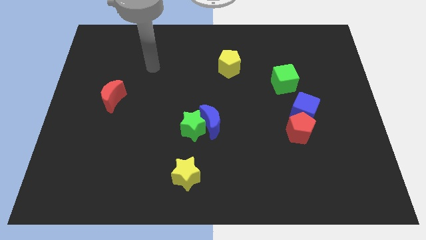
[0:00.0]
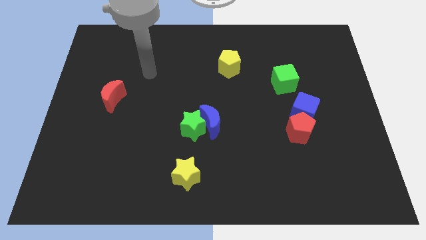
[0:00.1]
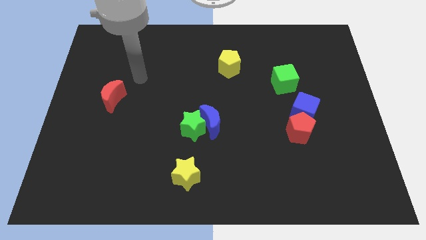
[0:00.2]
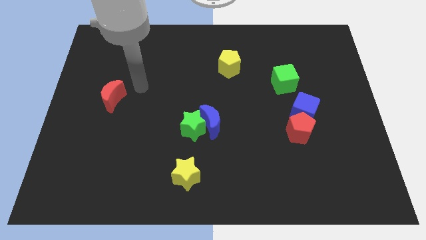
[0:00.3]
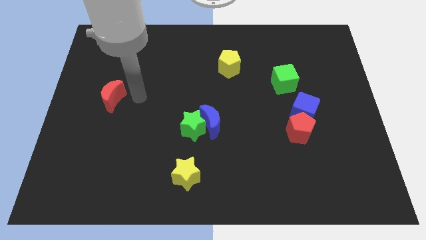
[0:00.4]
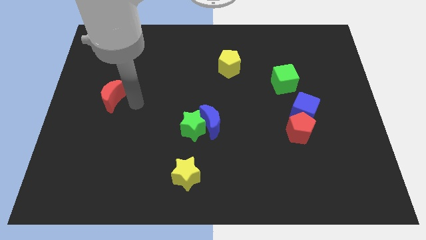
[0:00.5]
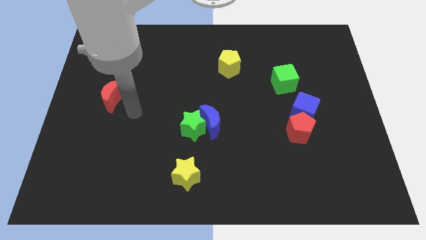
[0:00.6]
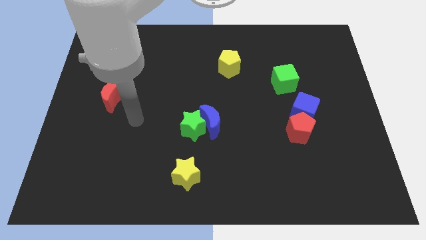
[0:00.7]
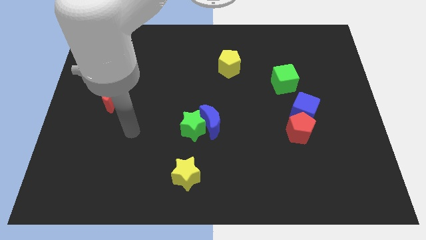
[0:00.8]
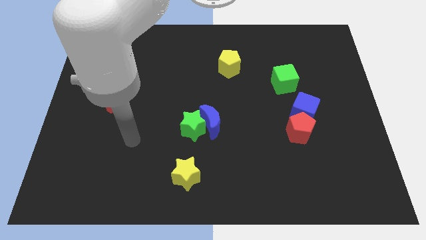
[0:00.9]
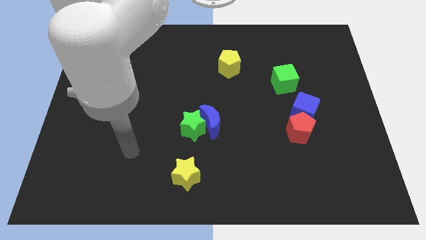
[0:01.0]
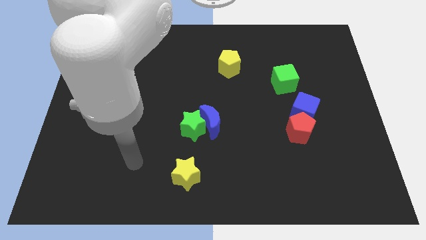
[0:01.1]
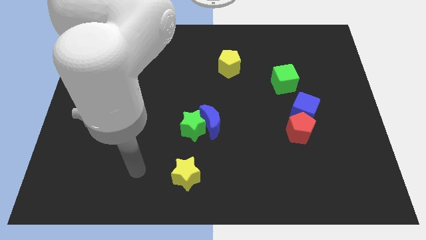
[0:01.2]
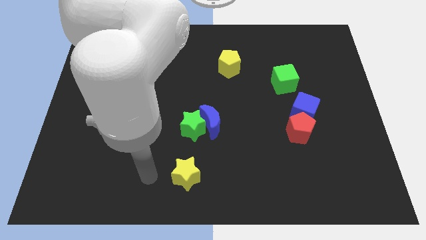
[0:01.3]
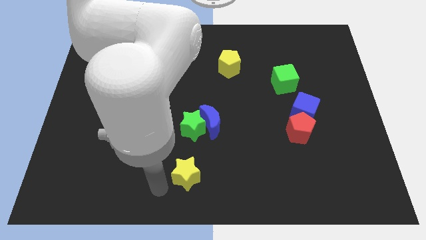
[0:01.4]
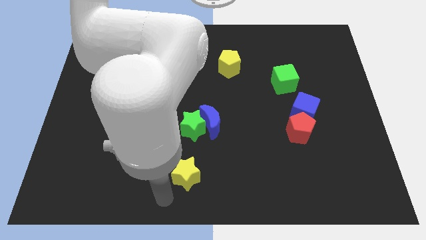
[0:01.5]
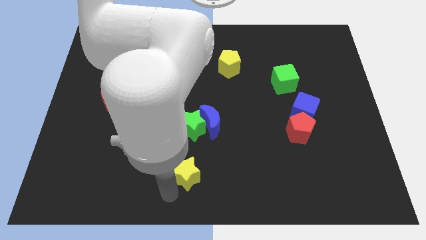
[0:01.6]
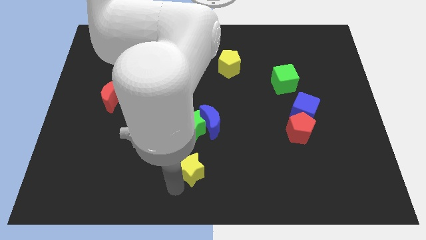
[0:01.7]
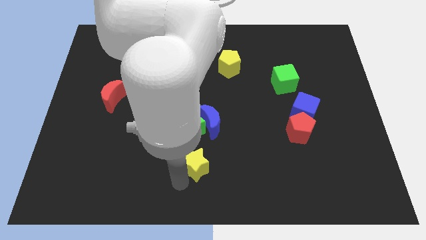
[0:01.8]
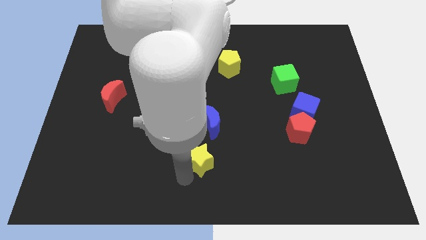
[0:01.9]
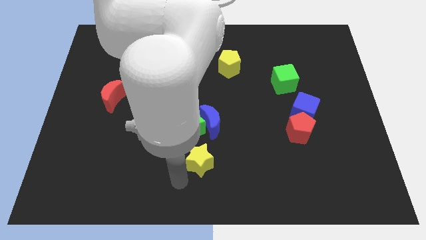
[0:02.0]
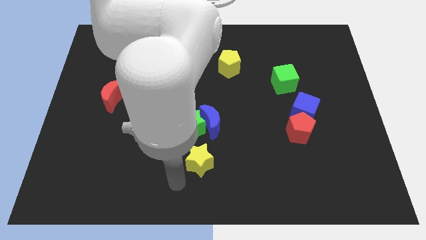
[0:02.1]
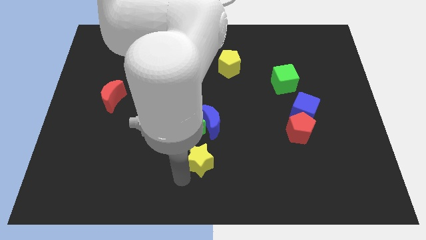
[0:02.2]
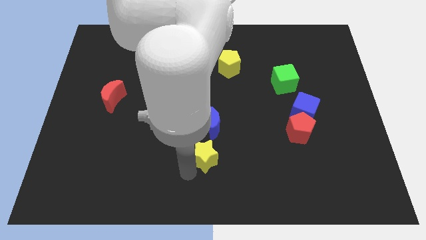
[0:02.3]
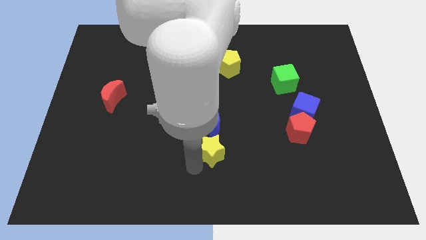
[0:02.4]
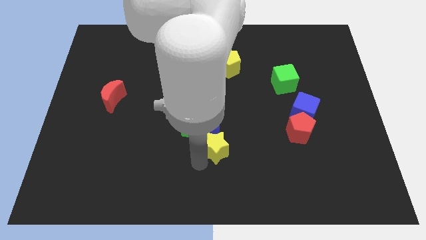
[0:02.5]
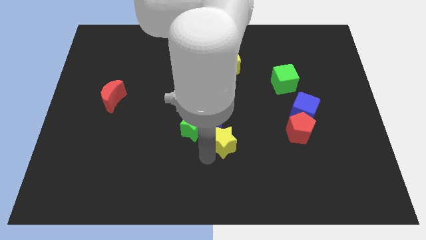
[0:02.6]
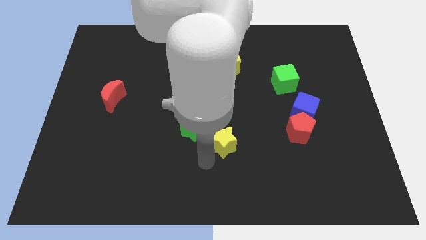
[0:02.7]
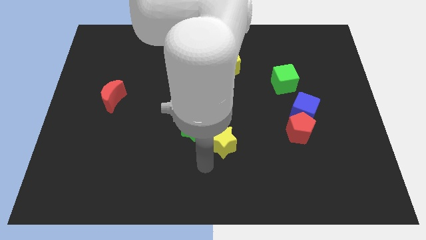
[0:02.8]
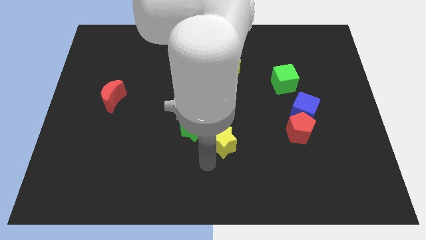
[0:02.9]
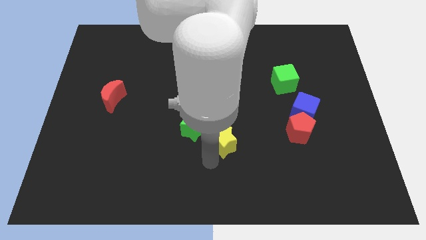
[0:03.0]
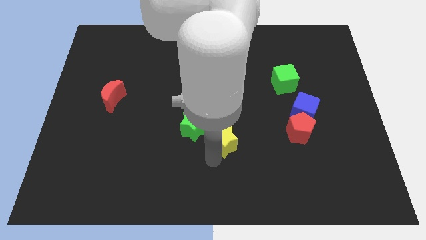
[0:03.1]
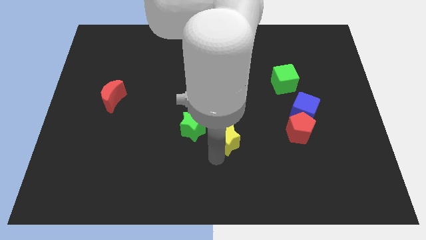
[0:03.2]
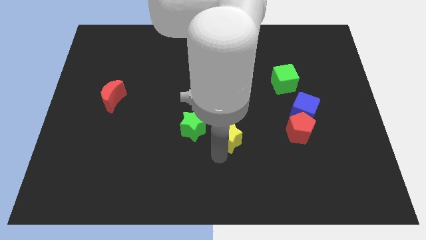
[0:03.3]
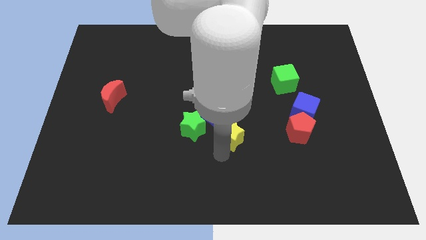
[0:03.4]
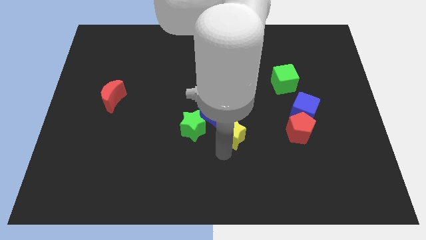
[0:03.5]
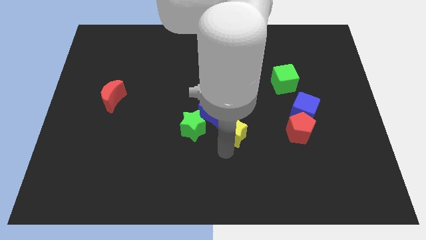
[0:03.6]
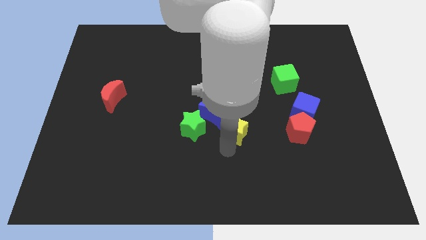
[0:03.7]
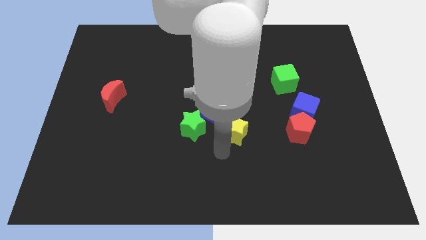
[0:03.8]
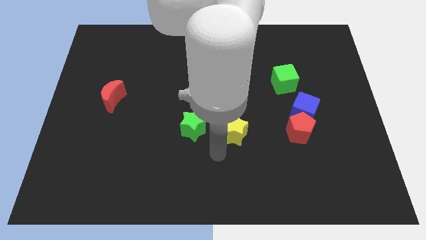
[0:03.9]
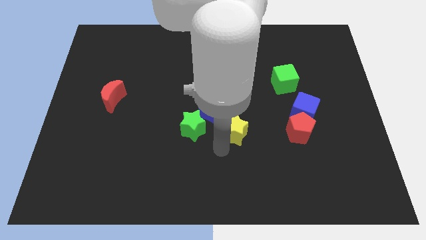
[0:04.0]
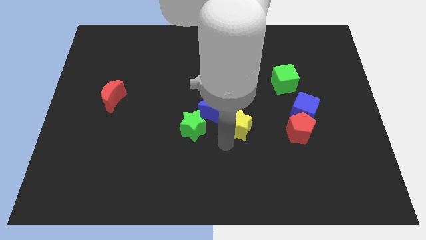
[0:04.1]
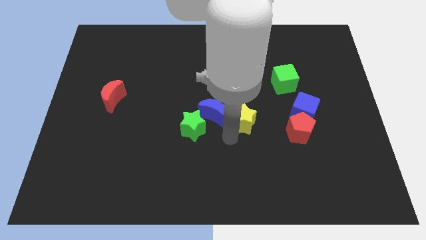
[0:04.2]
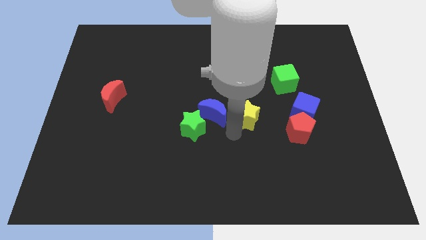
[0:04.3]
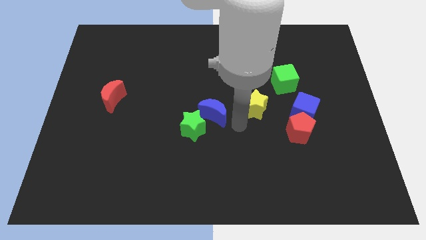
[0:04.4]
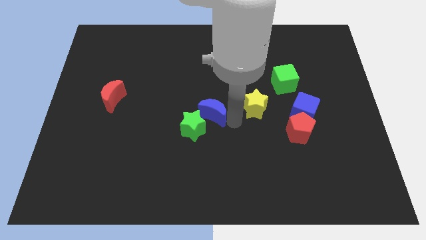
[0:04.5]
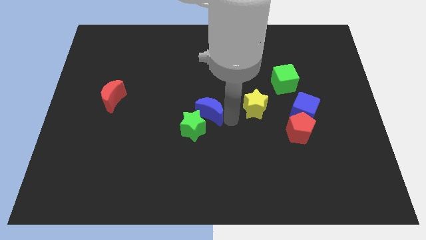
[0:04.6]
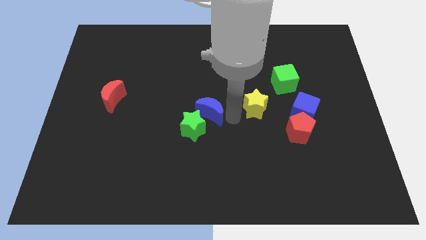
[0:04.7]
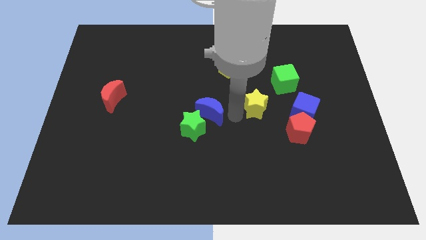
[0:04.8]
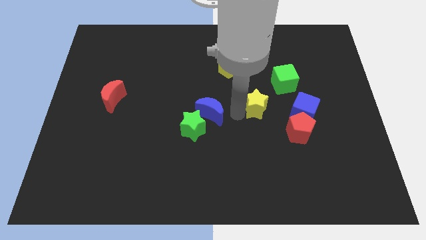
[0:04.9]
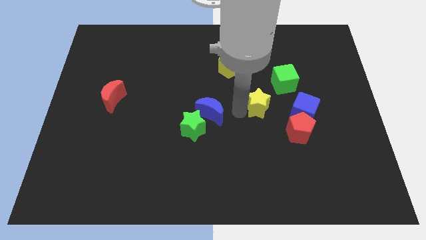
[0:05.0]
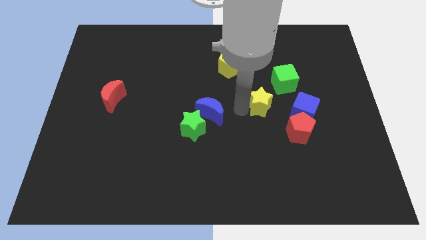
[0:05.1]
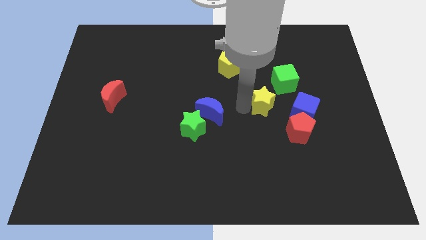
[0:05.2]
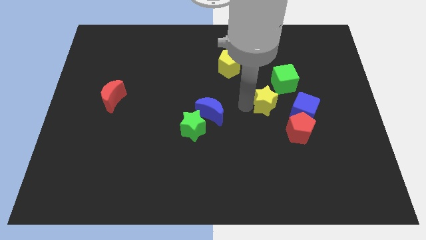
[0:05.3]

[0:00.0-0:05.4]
move the yellow star to the top left side of the blue cube

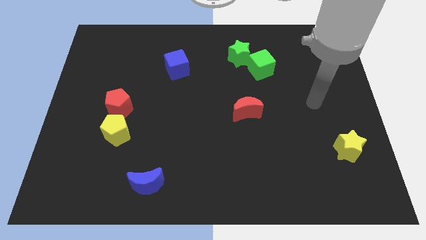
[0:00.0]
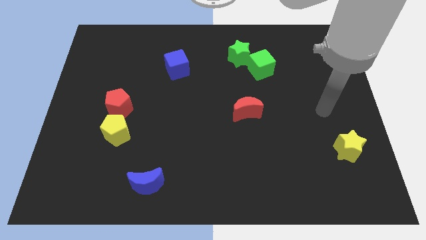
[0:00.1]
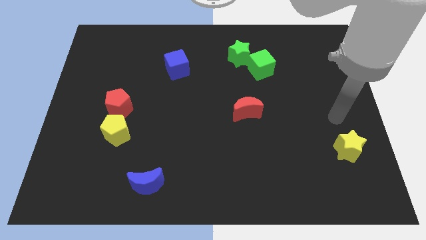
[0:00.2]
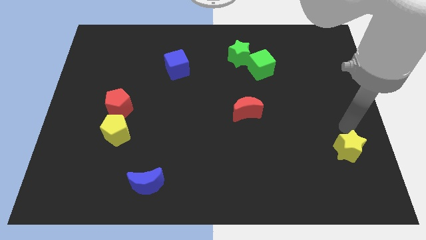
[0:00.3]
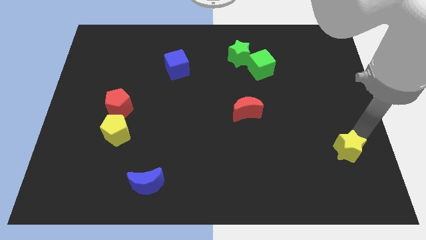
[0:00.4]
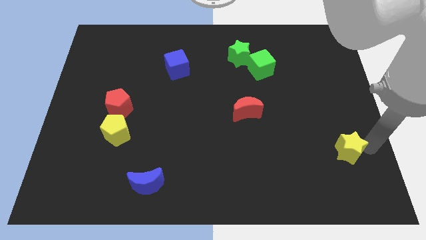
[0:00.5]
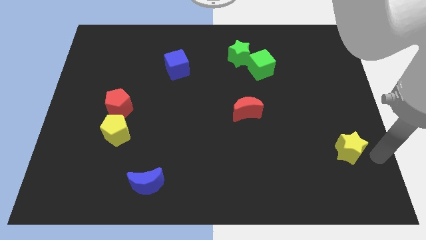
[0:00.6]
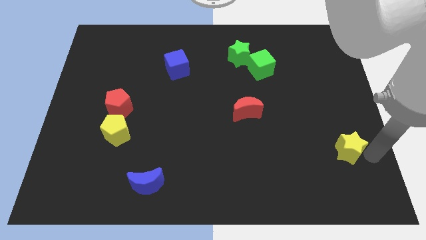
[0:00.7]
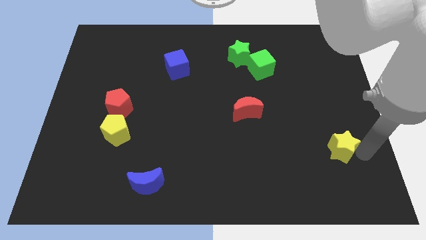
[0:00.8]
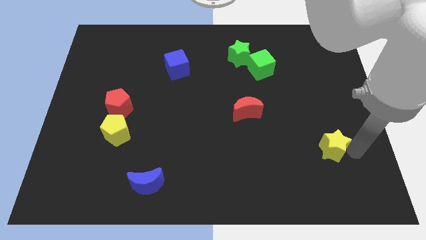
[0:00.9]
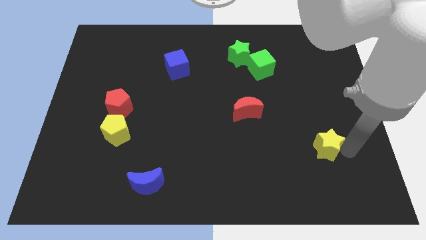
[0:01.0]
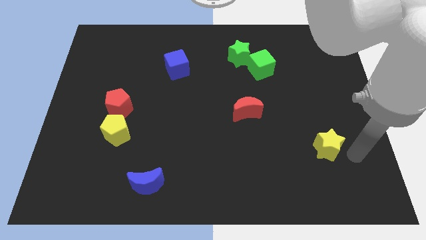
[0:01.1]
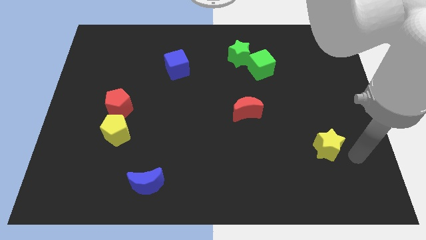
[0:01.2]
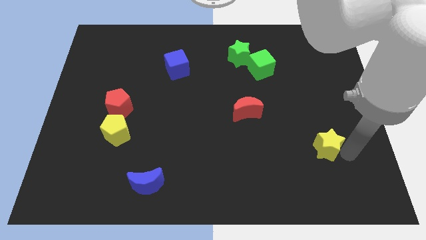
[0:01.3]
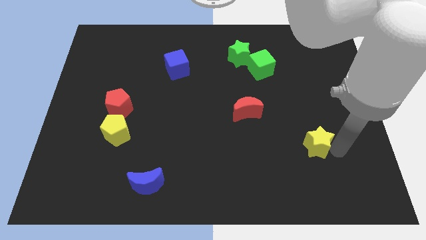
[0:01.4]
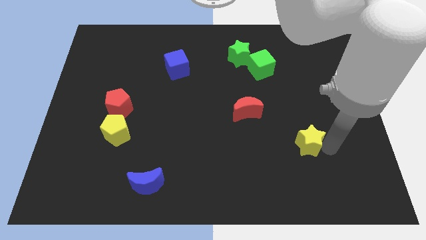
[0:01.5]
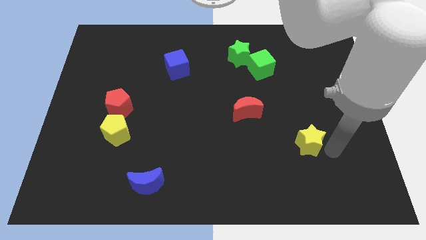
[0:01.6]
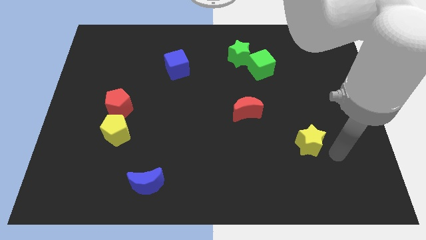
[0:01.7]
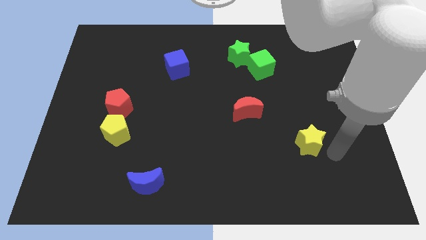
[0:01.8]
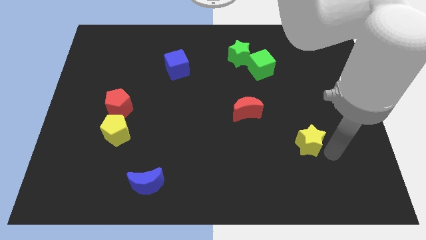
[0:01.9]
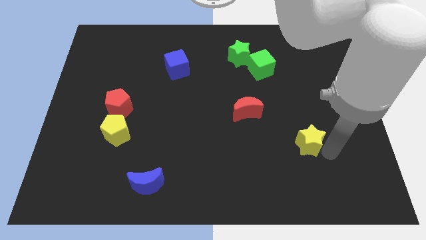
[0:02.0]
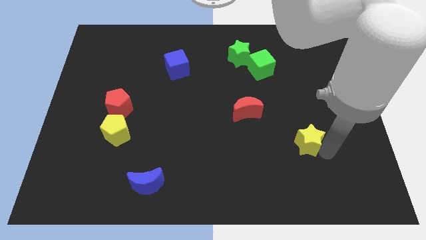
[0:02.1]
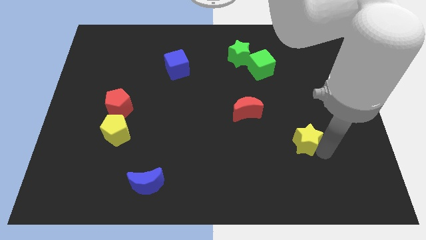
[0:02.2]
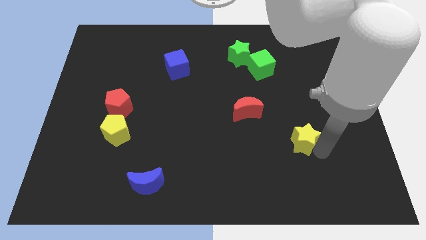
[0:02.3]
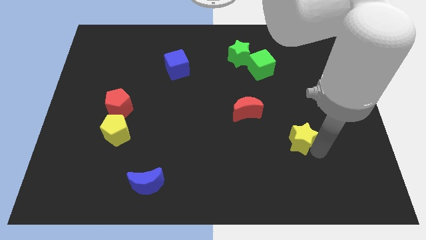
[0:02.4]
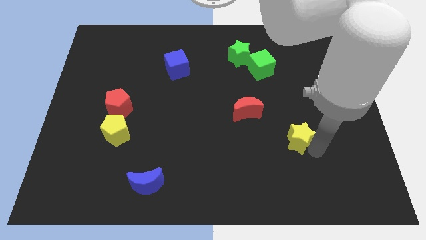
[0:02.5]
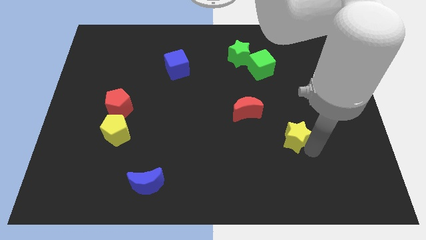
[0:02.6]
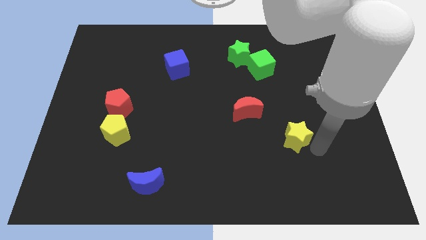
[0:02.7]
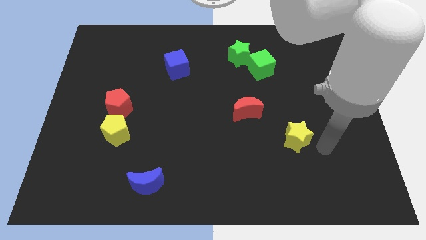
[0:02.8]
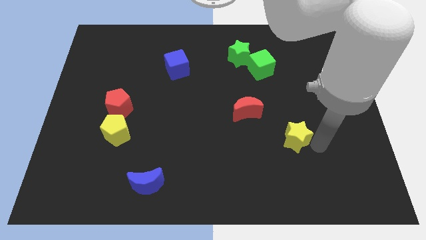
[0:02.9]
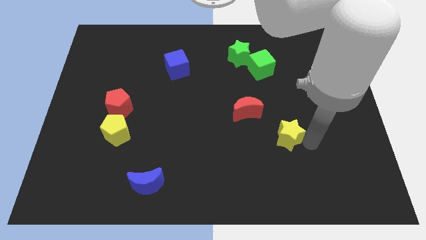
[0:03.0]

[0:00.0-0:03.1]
put the yellow star to the bottom right side of the red moon
